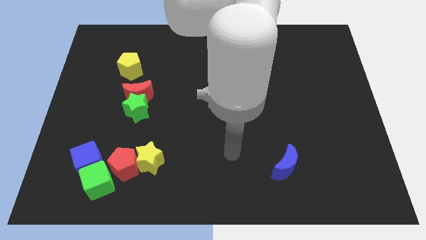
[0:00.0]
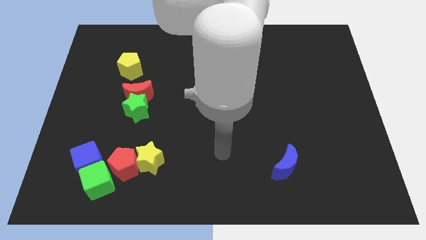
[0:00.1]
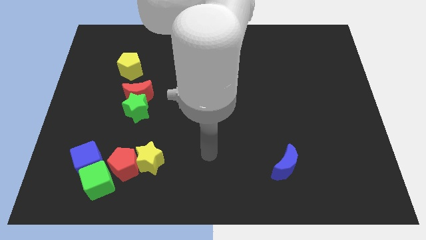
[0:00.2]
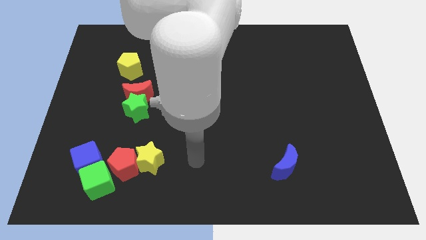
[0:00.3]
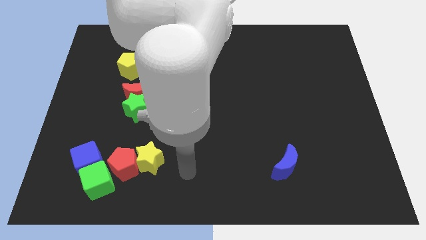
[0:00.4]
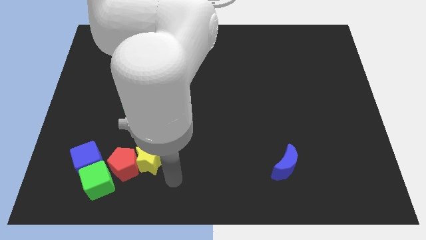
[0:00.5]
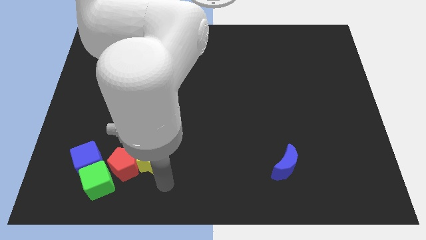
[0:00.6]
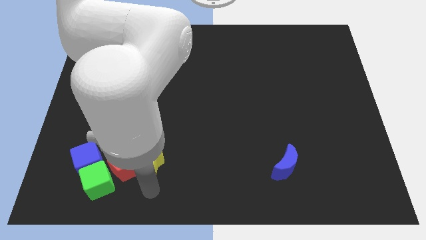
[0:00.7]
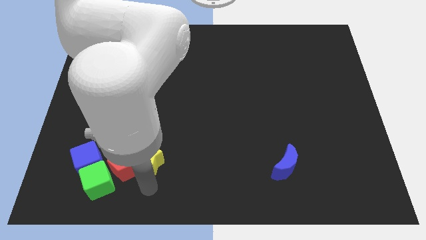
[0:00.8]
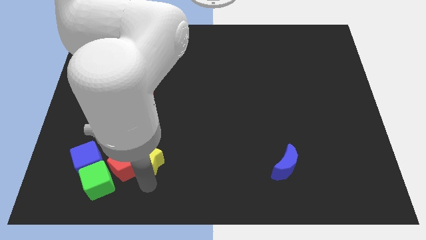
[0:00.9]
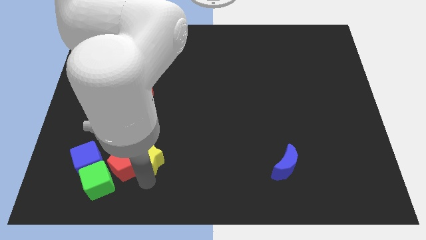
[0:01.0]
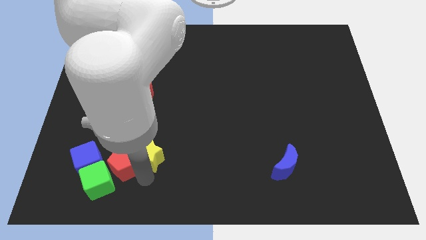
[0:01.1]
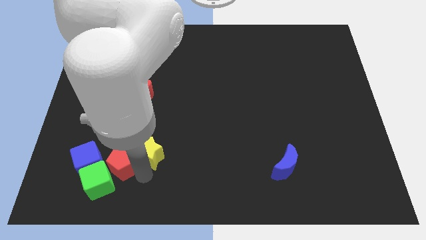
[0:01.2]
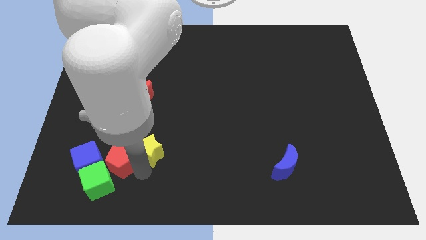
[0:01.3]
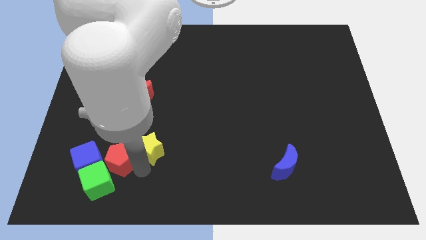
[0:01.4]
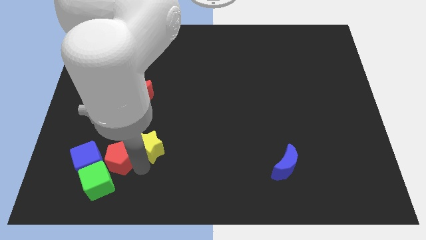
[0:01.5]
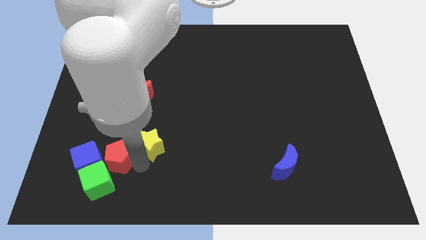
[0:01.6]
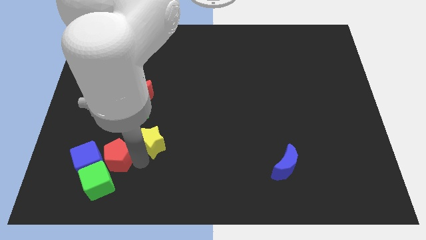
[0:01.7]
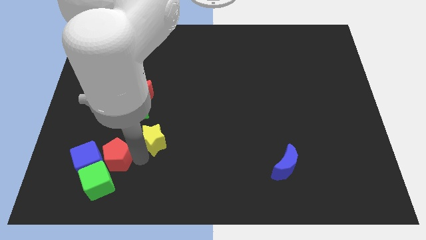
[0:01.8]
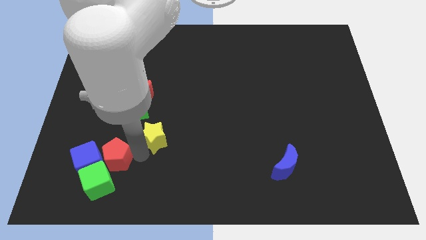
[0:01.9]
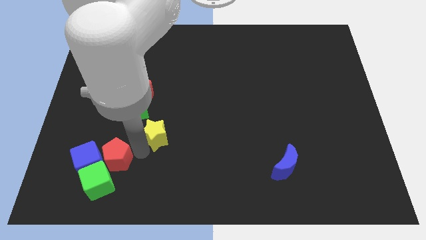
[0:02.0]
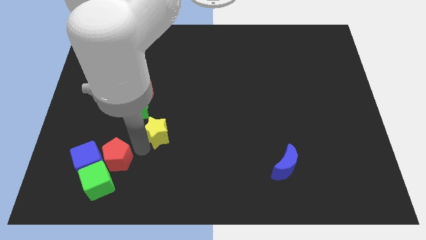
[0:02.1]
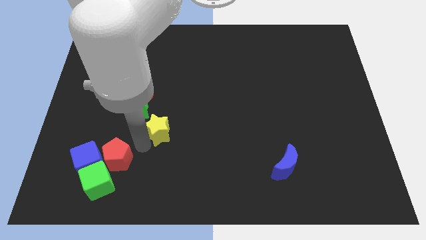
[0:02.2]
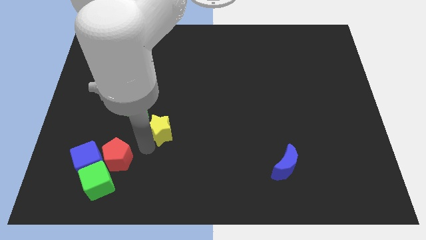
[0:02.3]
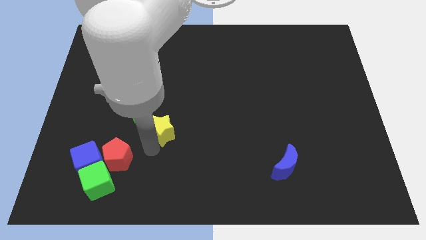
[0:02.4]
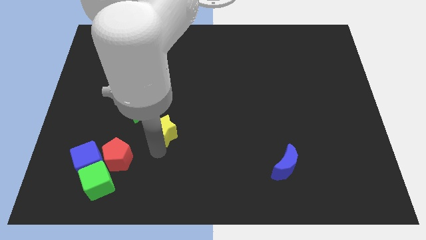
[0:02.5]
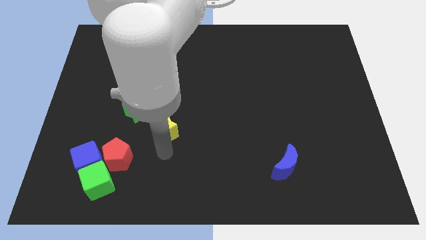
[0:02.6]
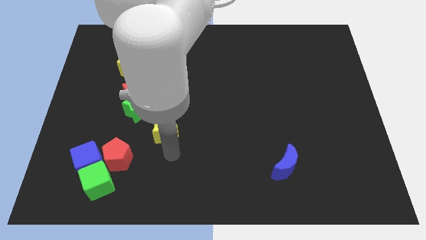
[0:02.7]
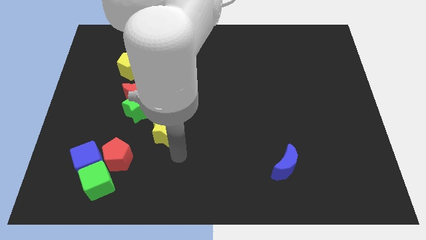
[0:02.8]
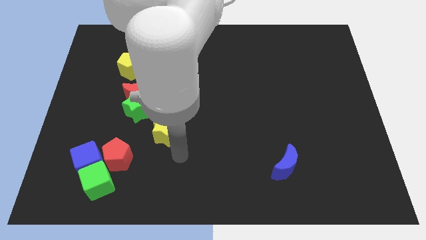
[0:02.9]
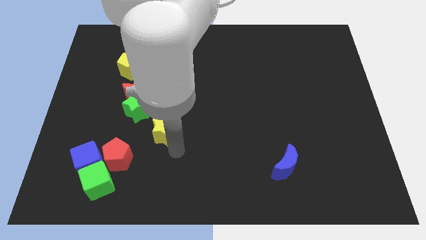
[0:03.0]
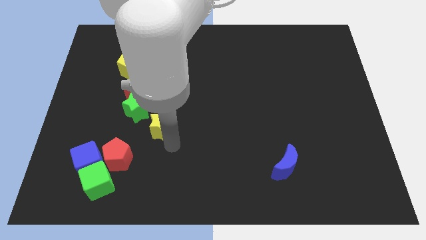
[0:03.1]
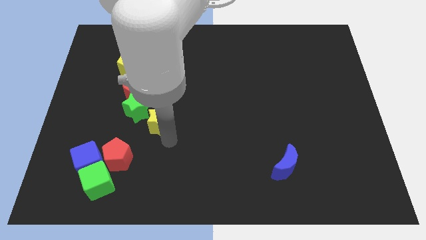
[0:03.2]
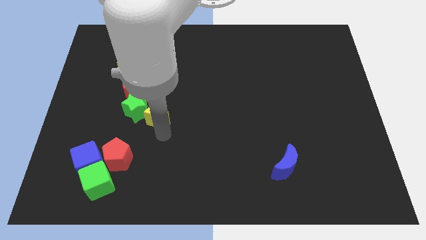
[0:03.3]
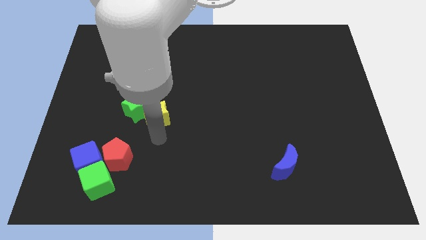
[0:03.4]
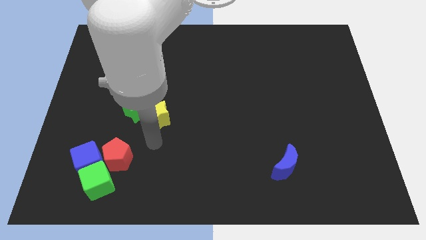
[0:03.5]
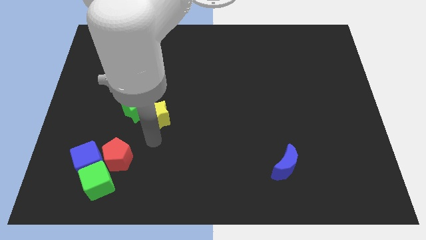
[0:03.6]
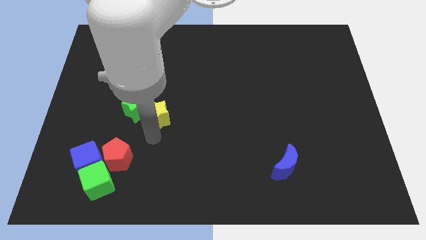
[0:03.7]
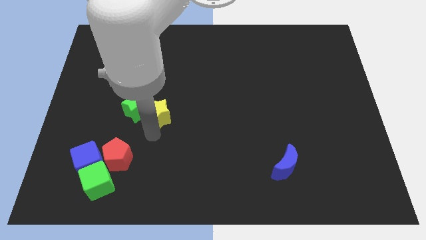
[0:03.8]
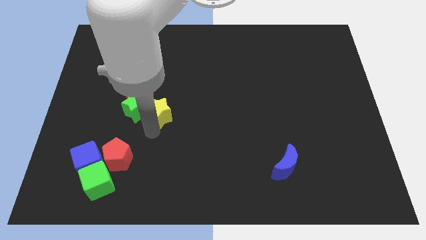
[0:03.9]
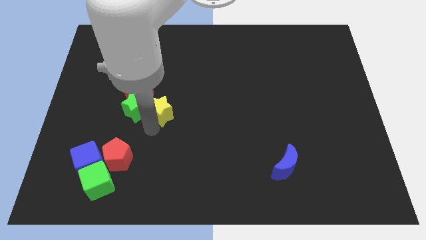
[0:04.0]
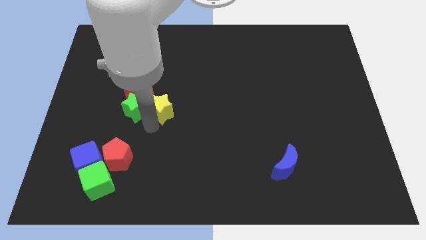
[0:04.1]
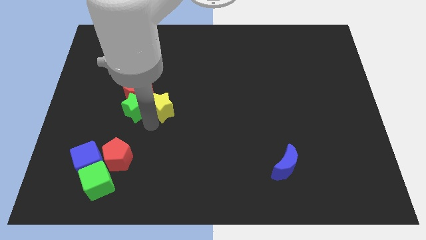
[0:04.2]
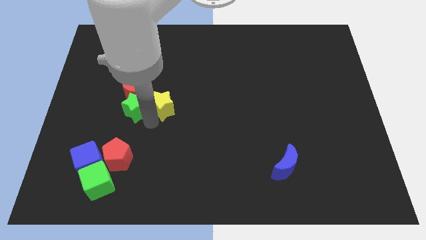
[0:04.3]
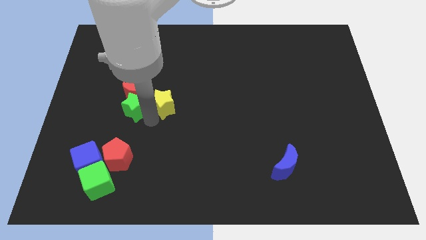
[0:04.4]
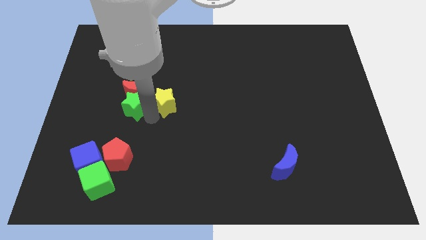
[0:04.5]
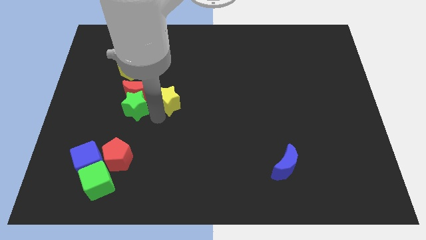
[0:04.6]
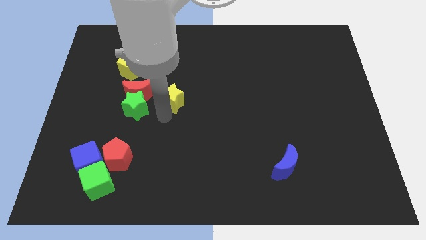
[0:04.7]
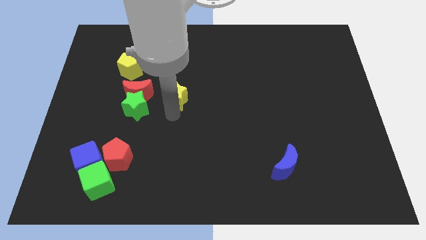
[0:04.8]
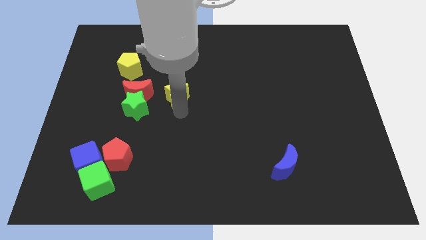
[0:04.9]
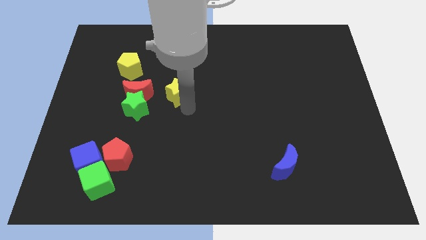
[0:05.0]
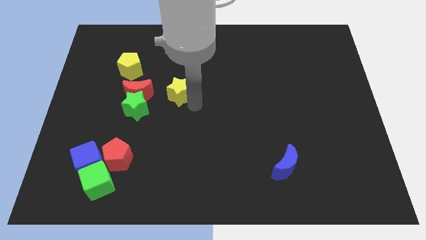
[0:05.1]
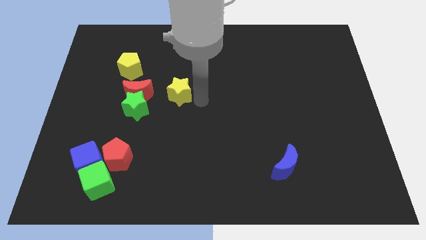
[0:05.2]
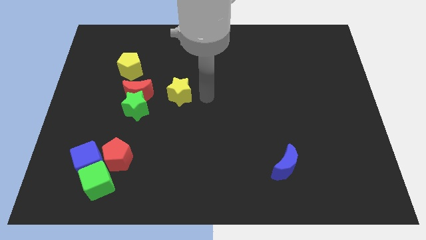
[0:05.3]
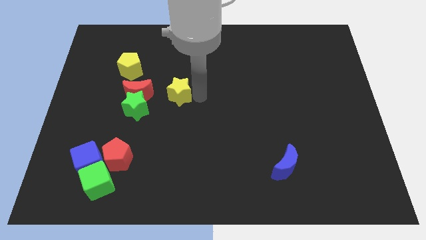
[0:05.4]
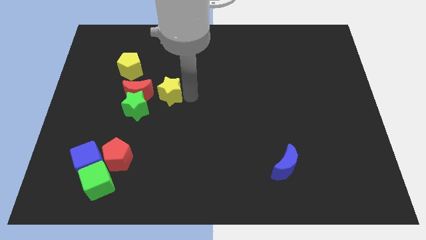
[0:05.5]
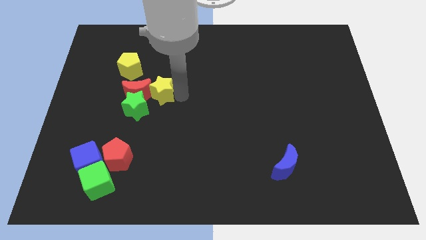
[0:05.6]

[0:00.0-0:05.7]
move the yellow star close to the red moon

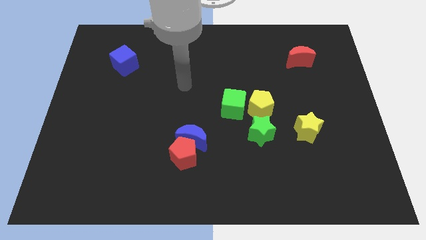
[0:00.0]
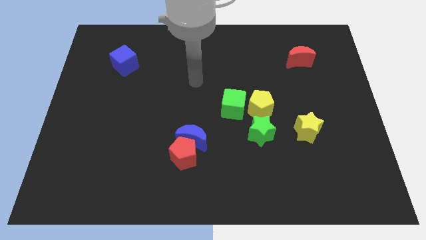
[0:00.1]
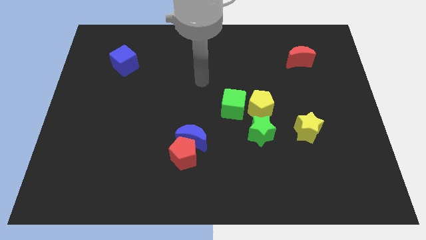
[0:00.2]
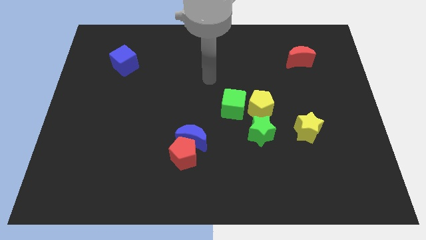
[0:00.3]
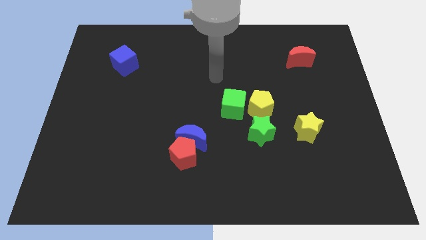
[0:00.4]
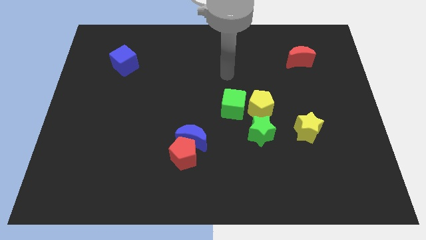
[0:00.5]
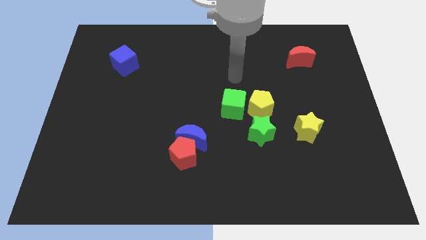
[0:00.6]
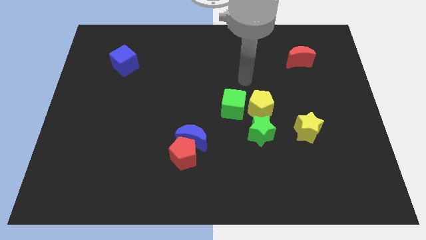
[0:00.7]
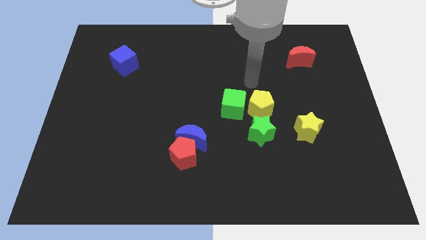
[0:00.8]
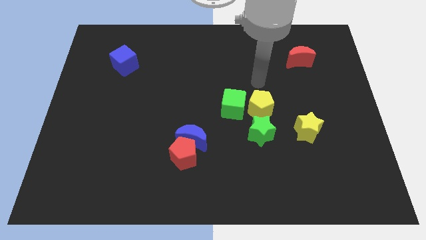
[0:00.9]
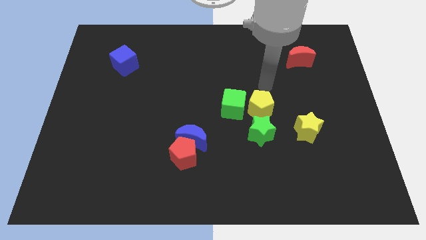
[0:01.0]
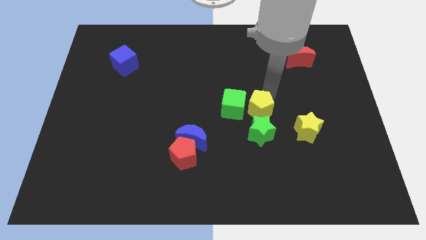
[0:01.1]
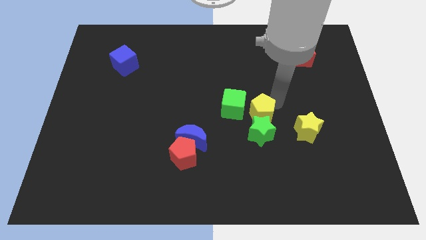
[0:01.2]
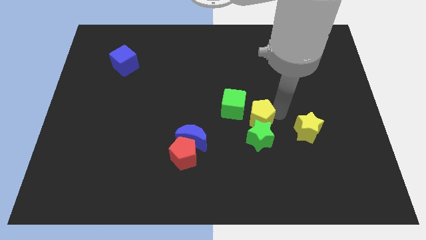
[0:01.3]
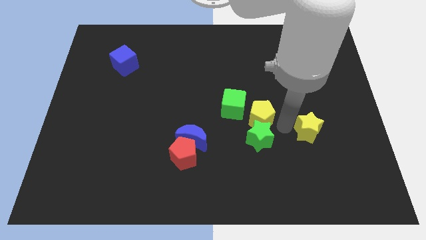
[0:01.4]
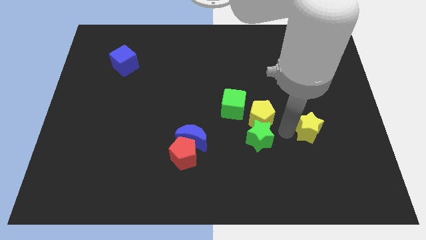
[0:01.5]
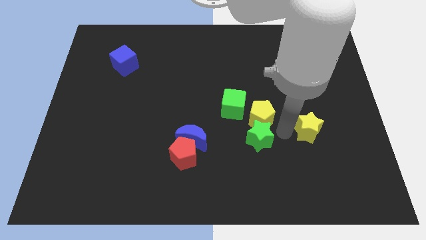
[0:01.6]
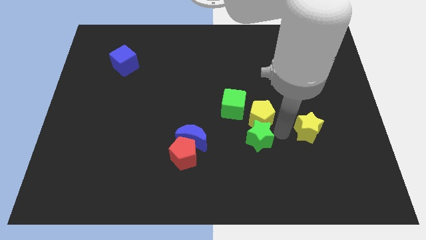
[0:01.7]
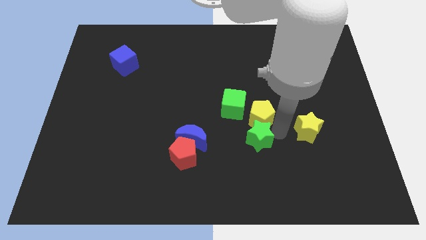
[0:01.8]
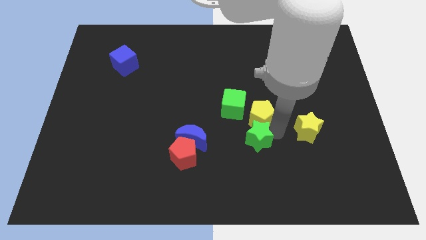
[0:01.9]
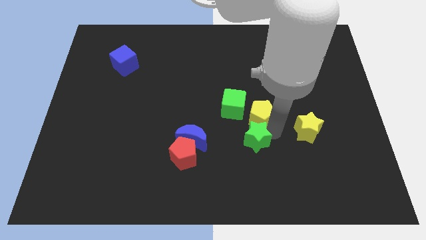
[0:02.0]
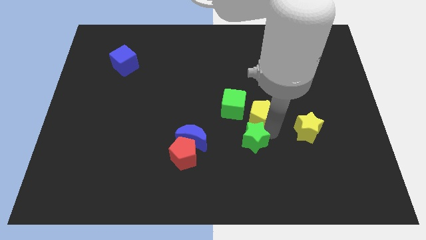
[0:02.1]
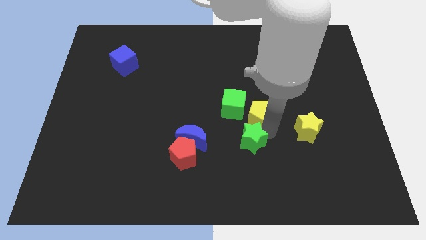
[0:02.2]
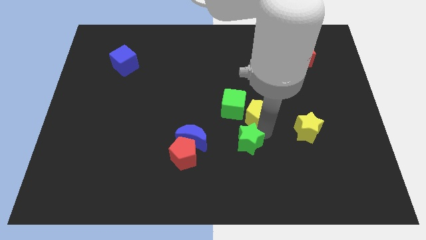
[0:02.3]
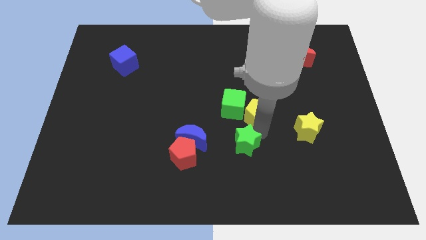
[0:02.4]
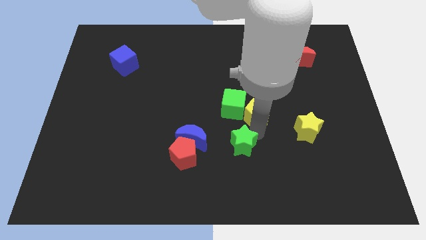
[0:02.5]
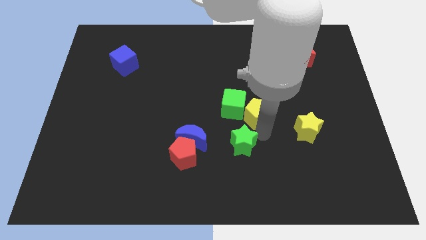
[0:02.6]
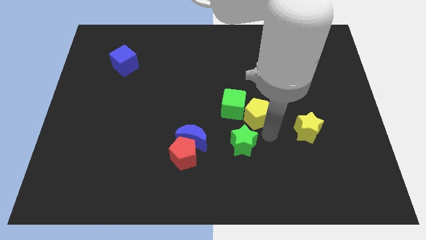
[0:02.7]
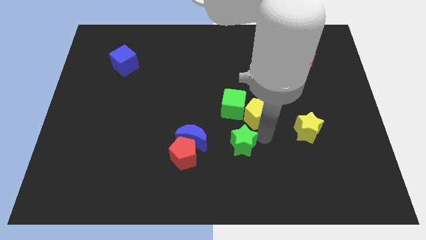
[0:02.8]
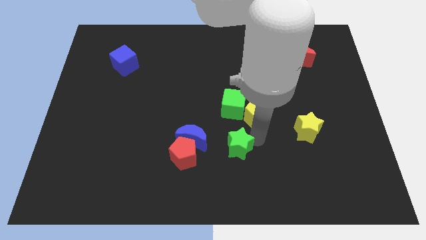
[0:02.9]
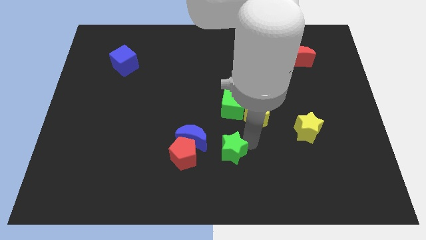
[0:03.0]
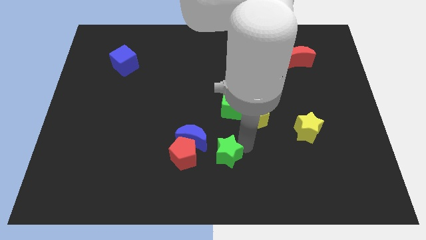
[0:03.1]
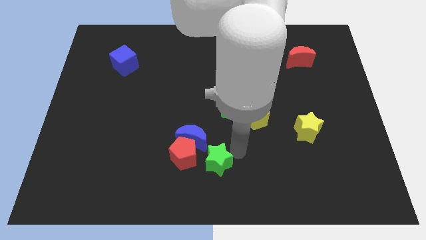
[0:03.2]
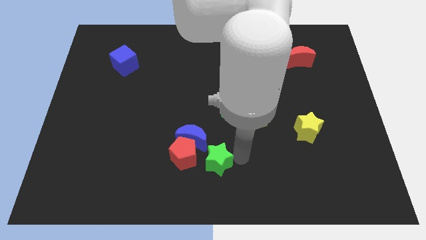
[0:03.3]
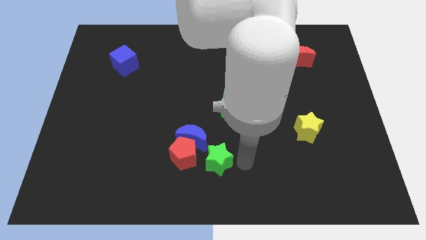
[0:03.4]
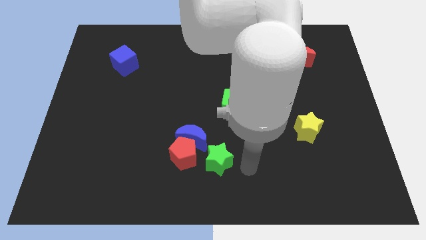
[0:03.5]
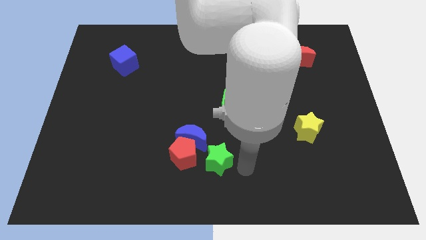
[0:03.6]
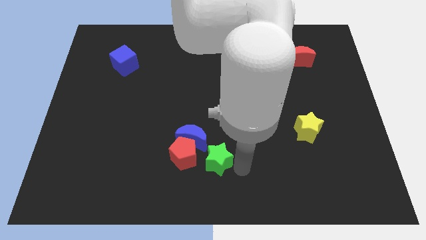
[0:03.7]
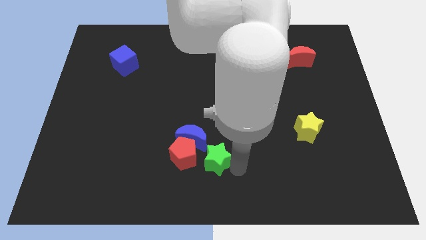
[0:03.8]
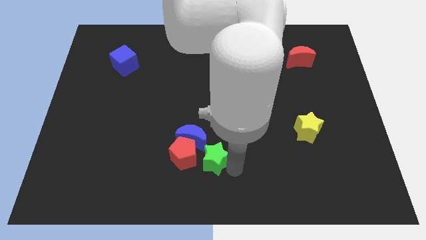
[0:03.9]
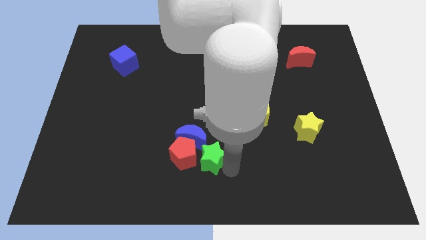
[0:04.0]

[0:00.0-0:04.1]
push the green star towards the red pentagon
